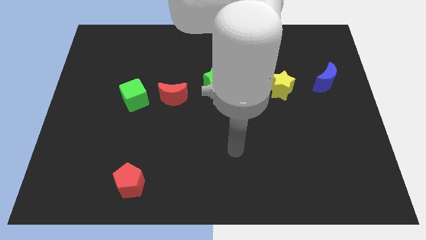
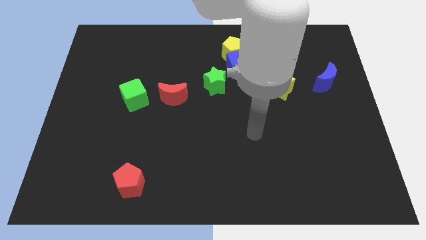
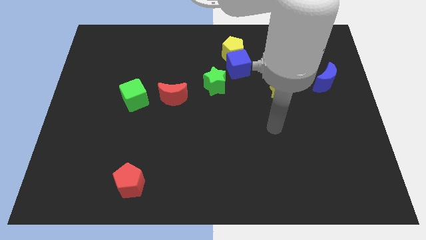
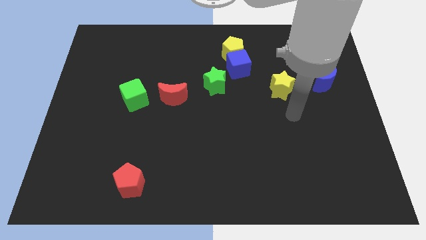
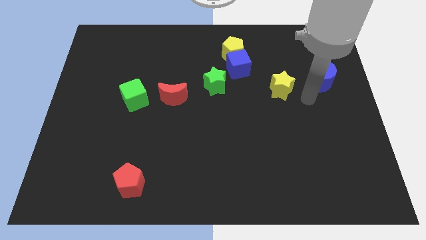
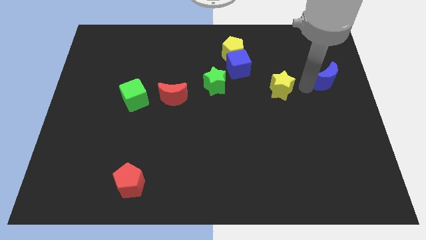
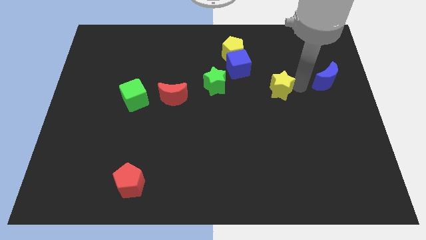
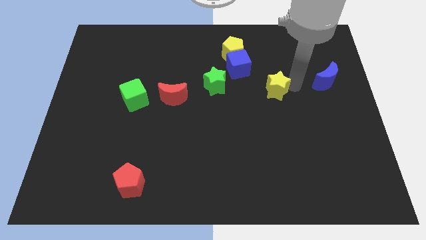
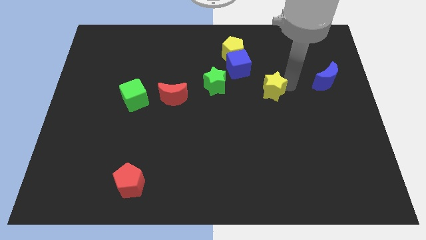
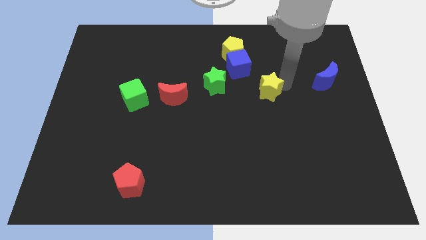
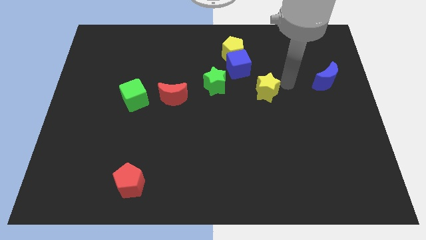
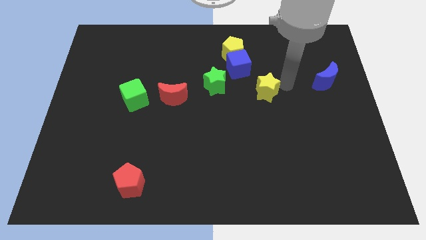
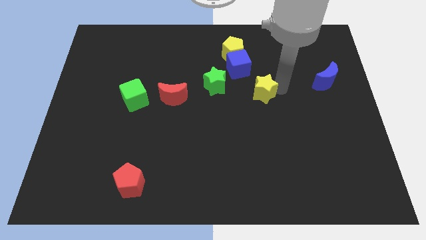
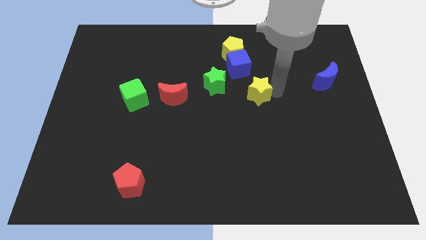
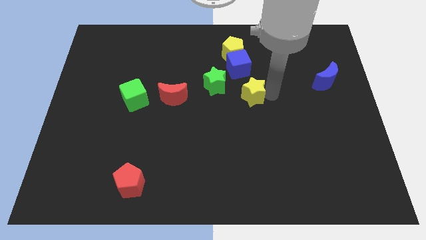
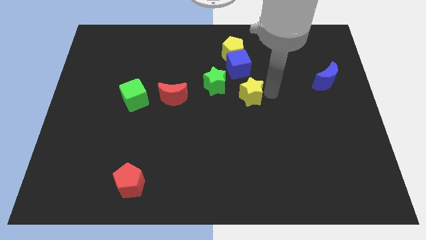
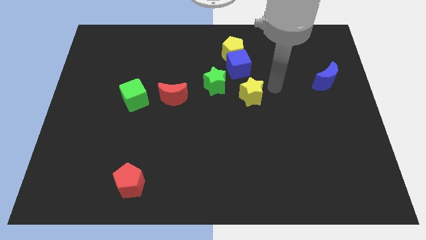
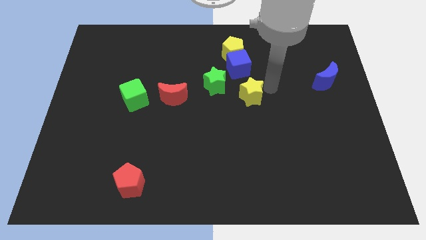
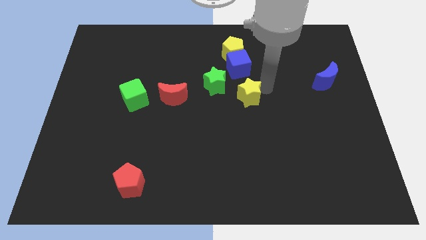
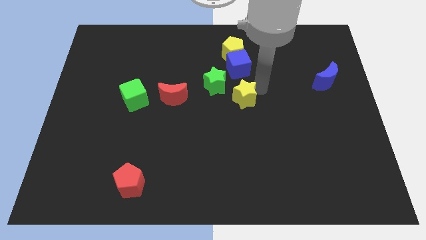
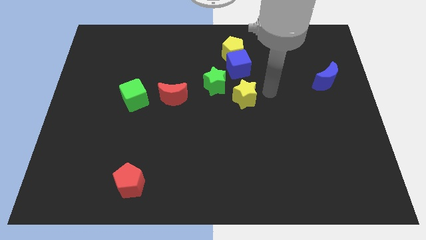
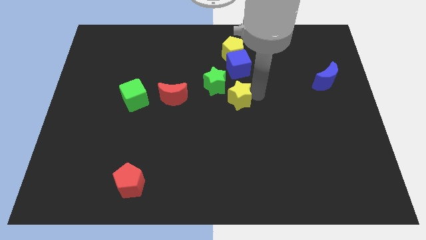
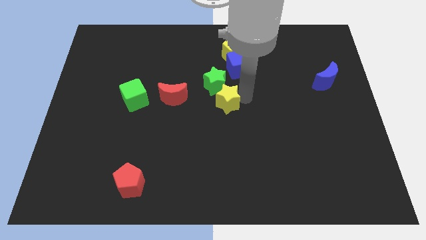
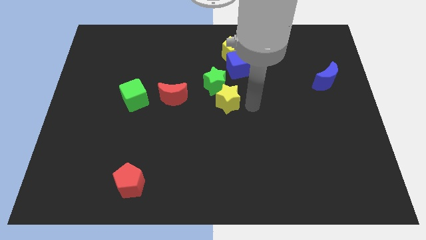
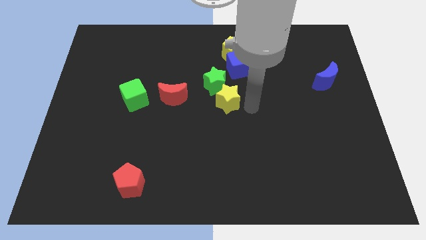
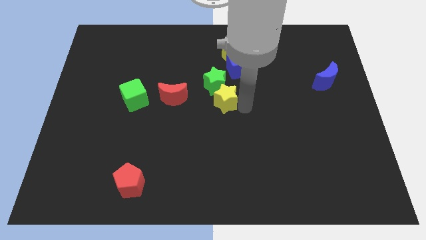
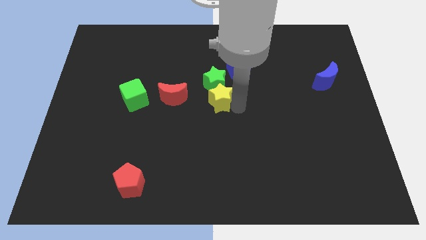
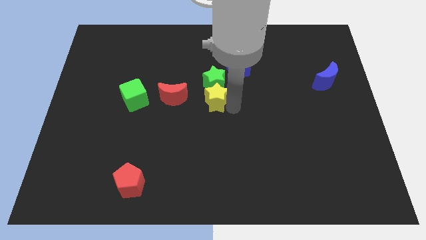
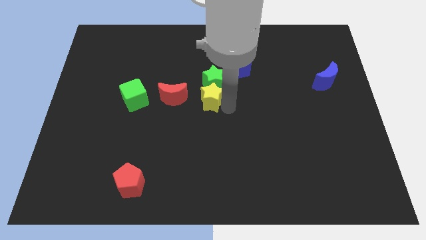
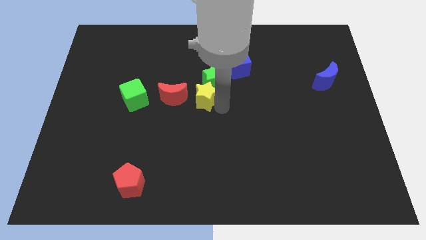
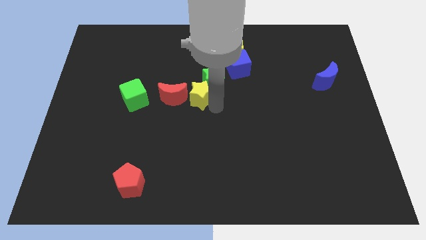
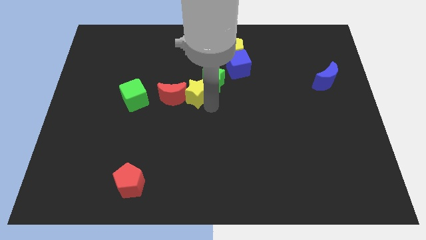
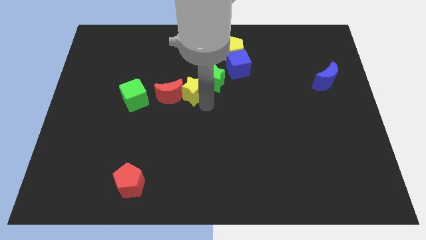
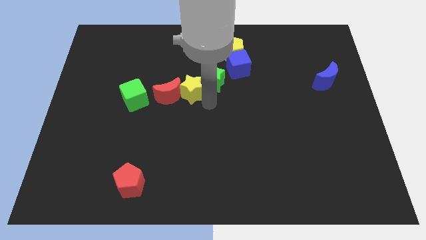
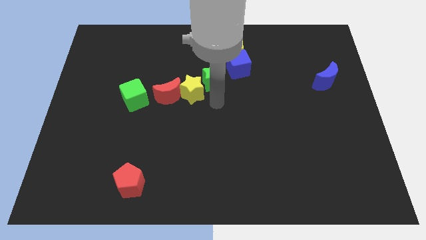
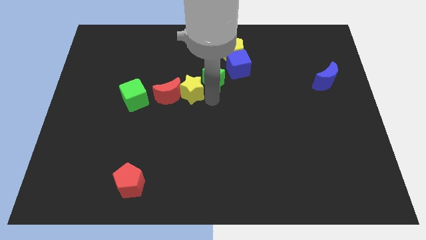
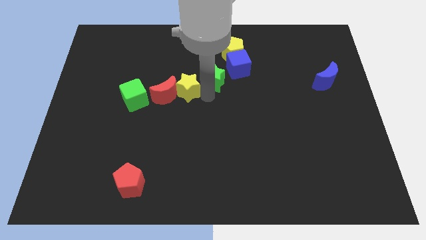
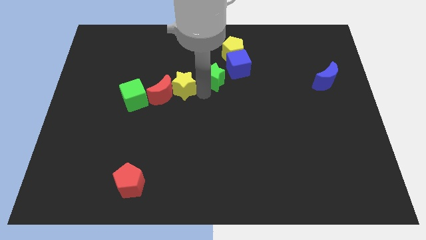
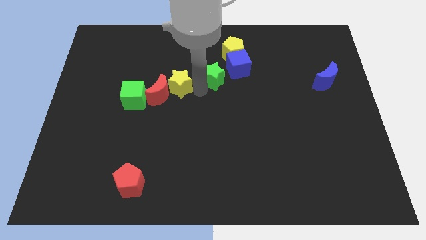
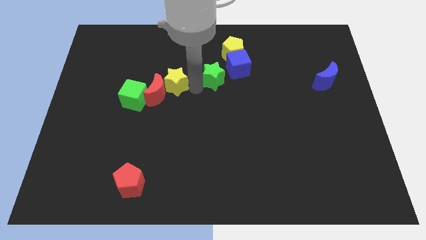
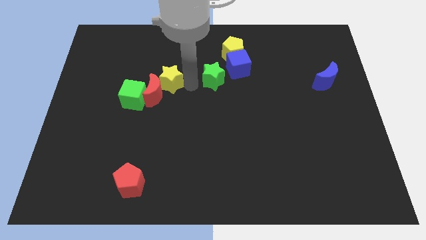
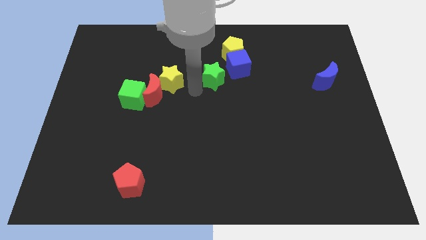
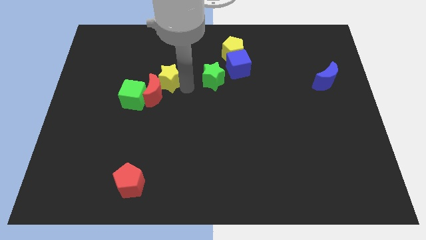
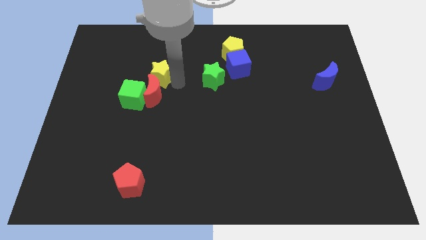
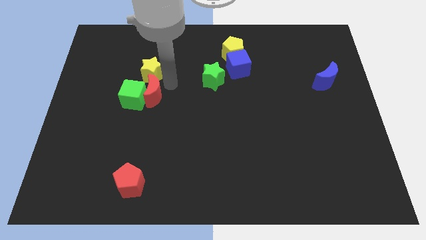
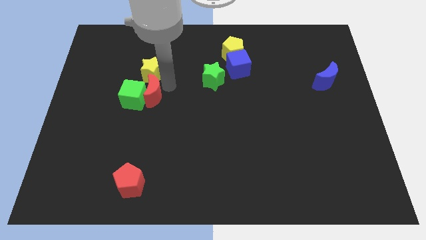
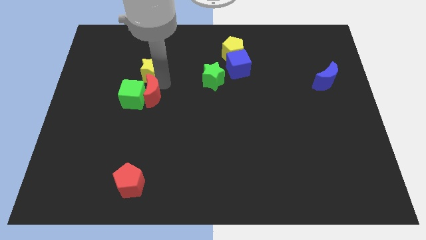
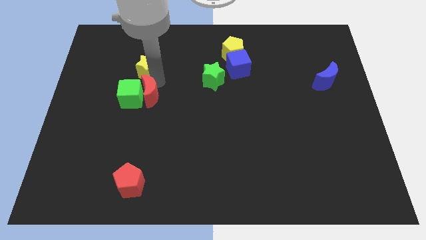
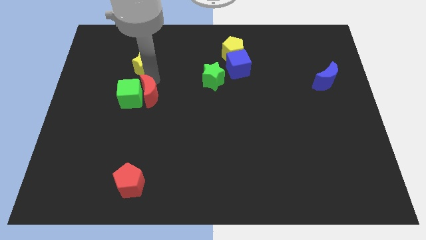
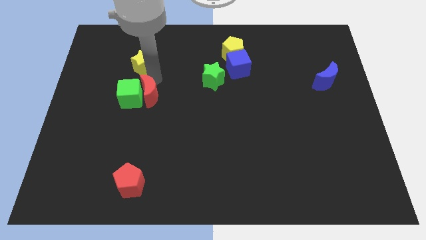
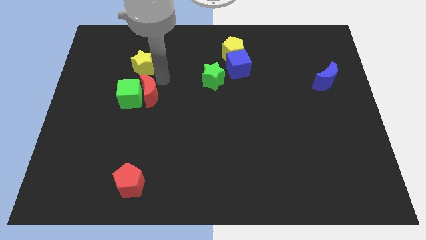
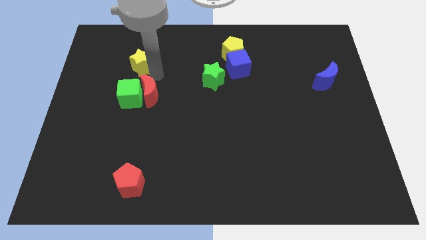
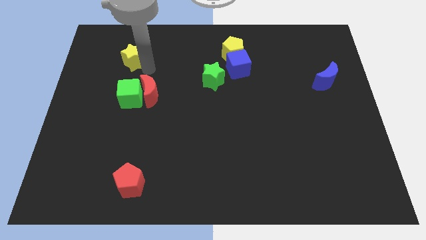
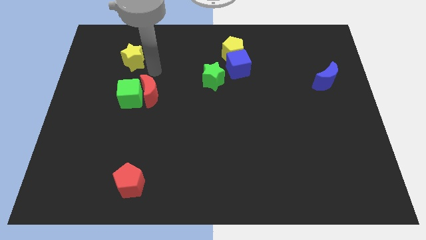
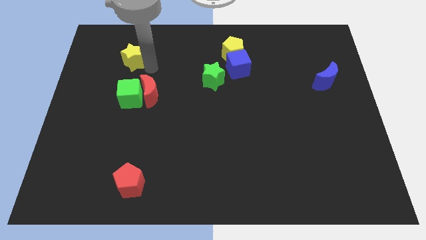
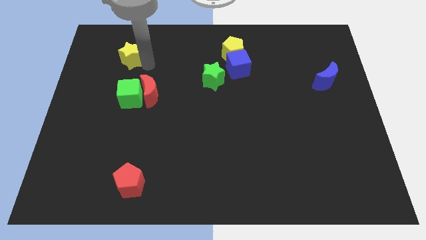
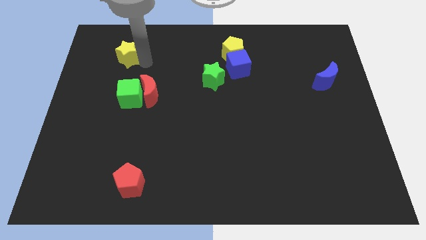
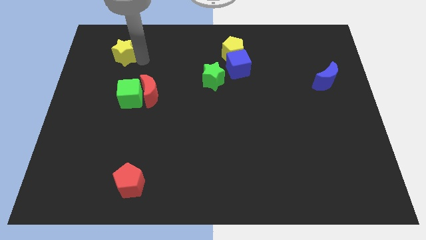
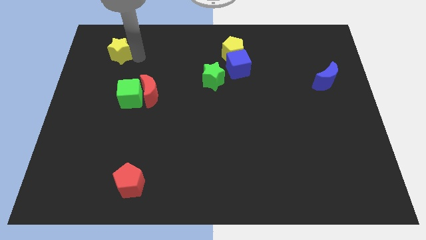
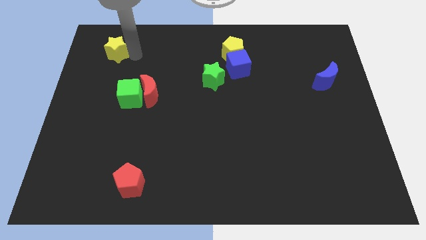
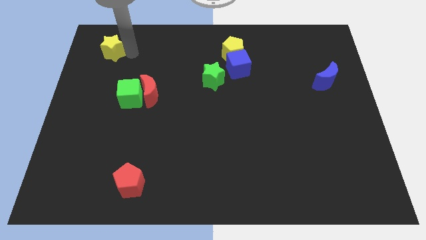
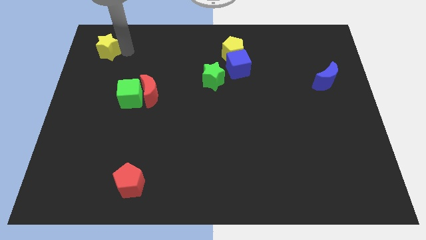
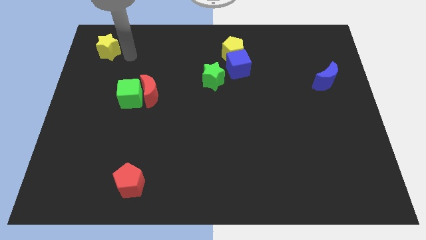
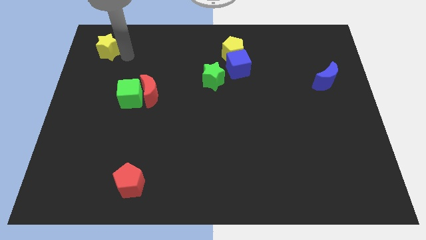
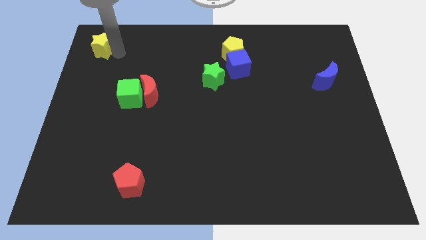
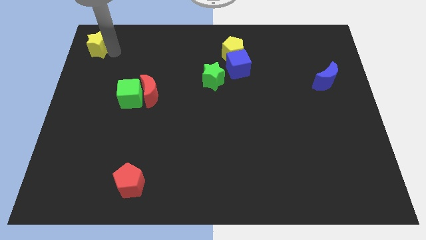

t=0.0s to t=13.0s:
push the yellow star to the top left of the board
